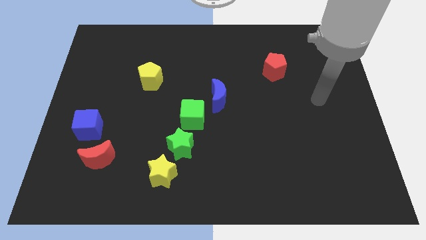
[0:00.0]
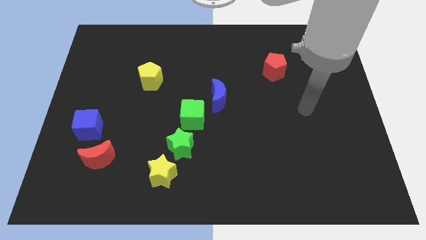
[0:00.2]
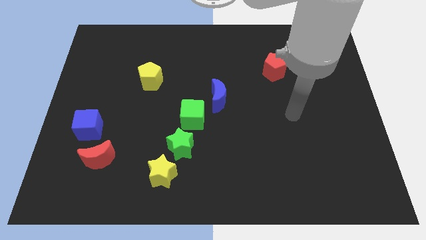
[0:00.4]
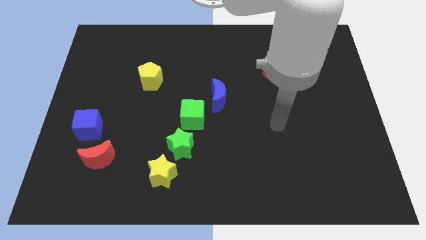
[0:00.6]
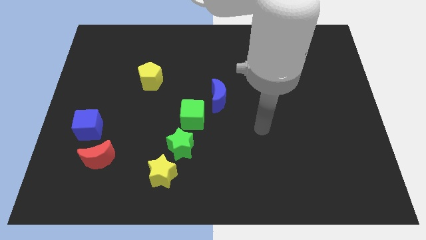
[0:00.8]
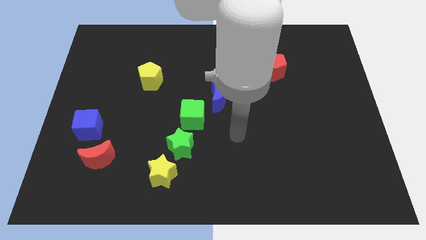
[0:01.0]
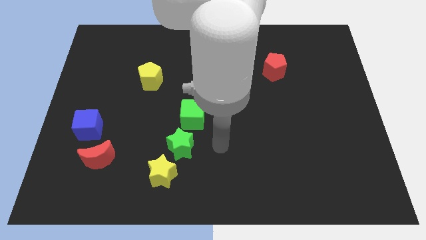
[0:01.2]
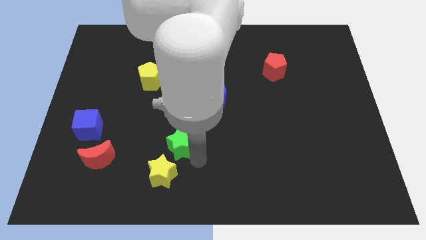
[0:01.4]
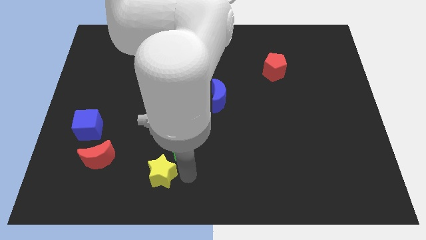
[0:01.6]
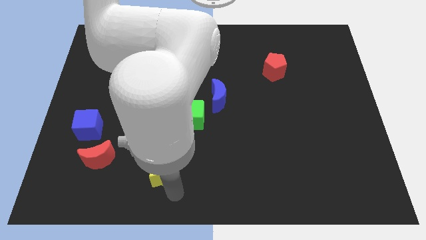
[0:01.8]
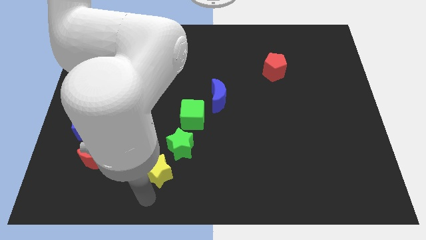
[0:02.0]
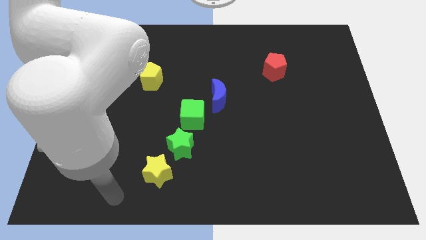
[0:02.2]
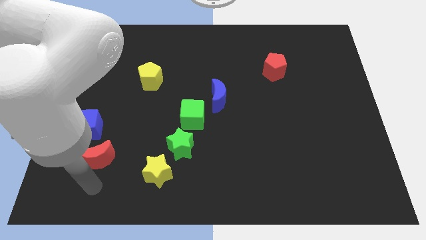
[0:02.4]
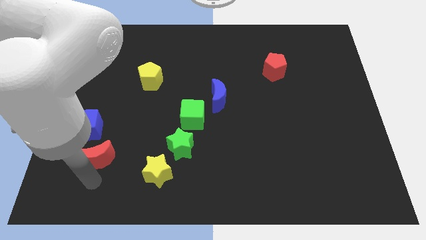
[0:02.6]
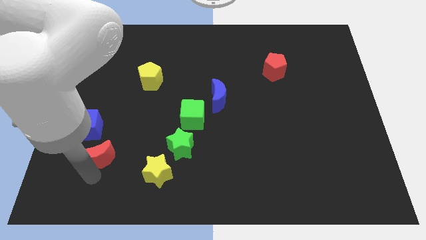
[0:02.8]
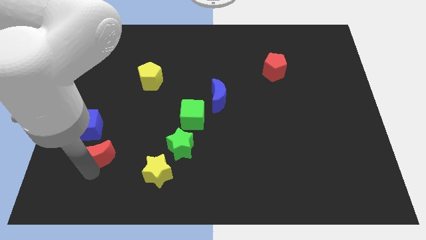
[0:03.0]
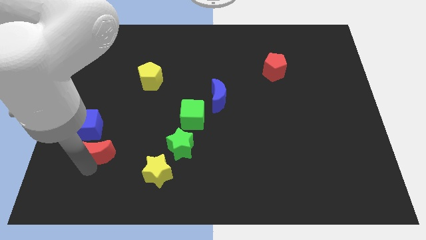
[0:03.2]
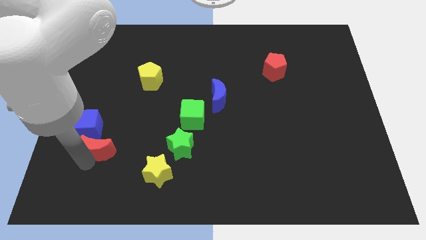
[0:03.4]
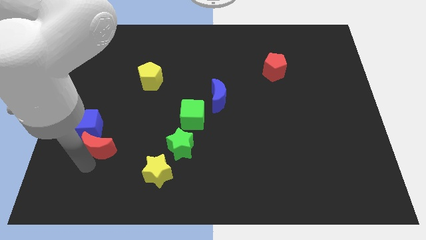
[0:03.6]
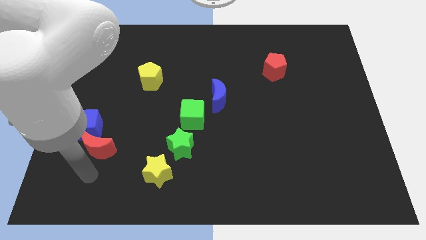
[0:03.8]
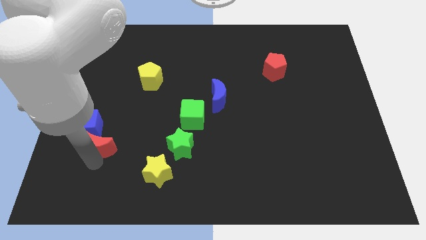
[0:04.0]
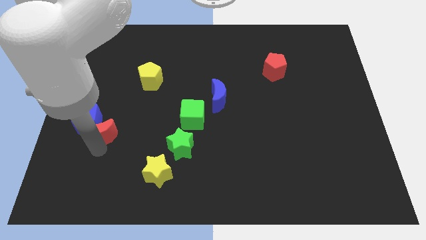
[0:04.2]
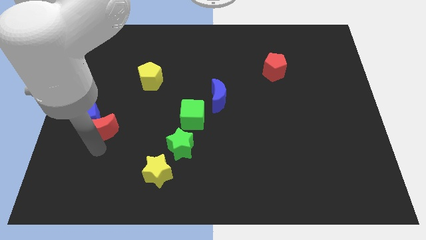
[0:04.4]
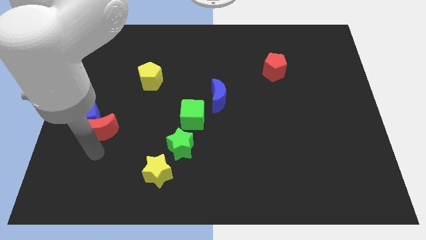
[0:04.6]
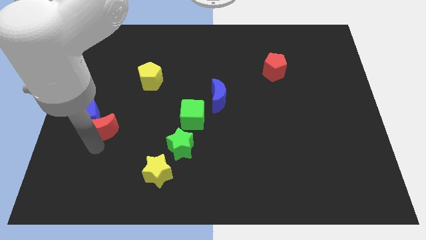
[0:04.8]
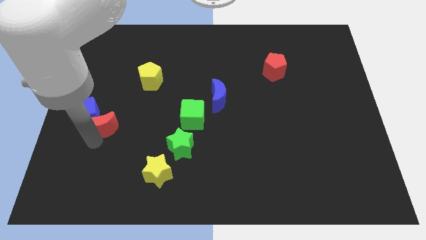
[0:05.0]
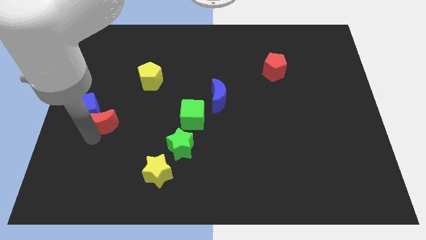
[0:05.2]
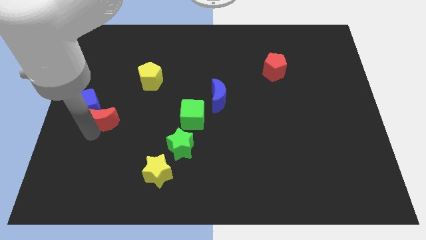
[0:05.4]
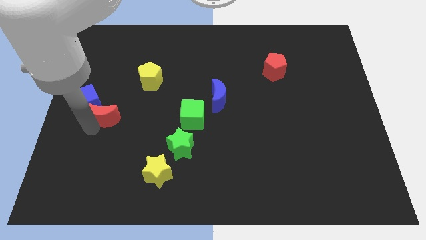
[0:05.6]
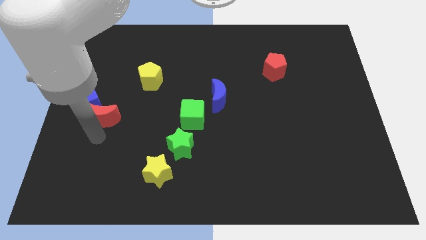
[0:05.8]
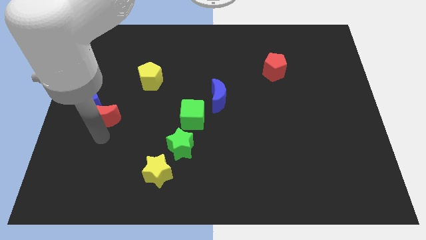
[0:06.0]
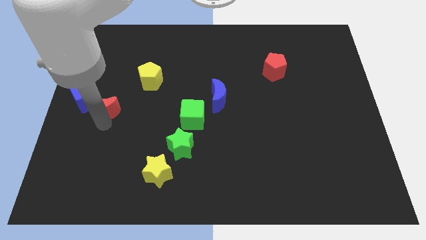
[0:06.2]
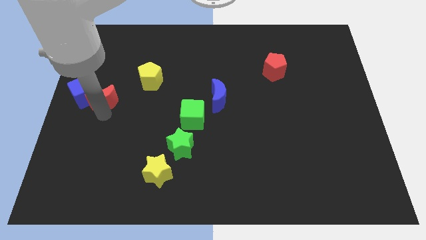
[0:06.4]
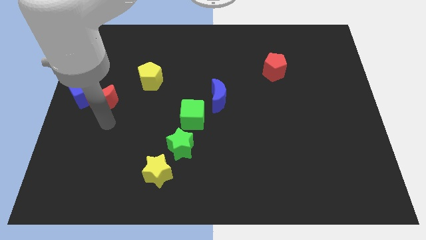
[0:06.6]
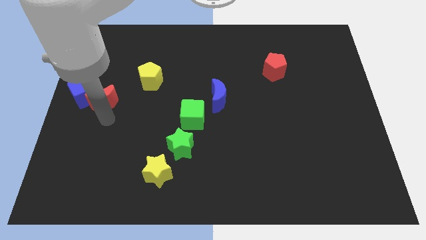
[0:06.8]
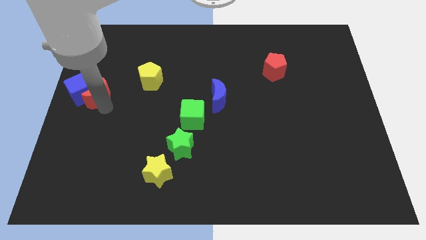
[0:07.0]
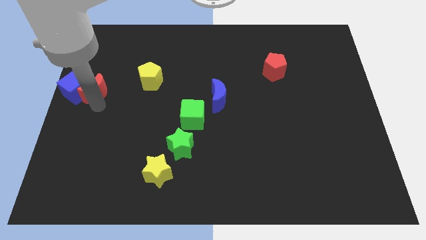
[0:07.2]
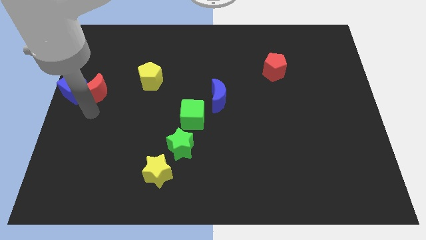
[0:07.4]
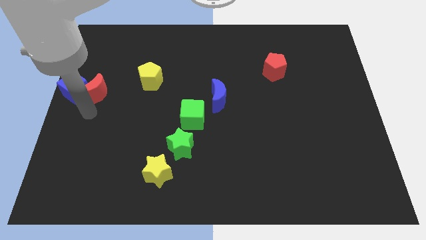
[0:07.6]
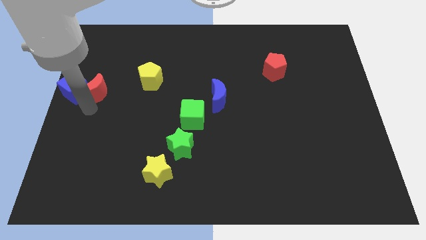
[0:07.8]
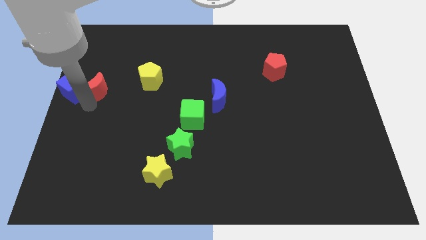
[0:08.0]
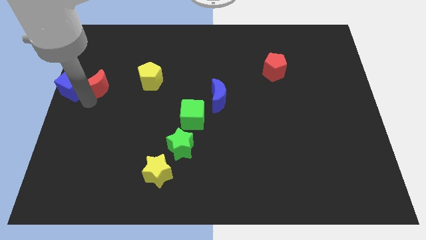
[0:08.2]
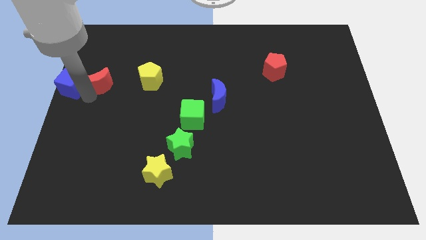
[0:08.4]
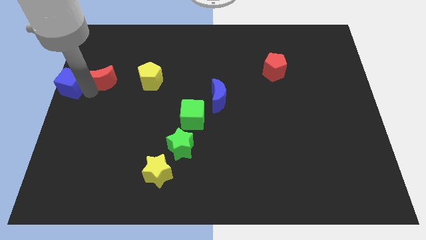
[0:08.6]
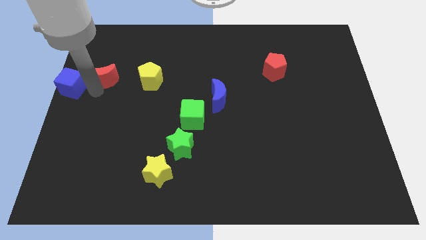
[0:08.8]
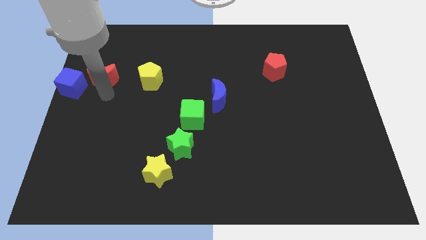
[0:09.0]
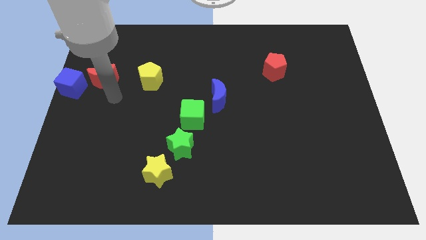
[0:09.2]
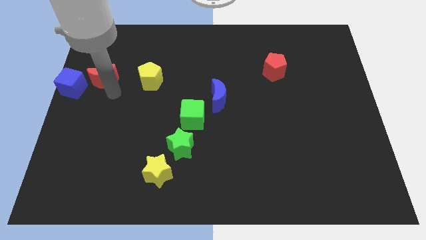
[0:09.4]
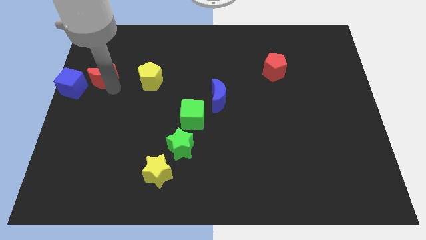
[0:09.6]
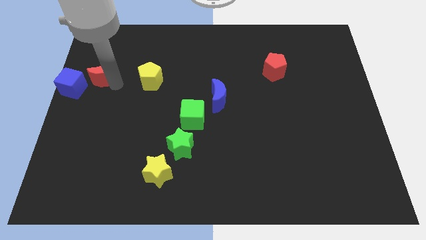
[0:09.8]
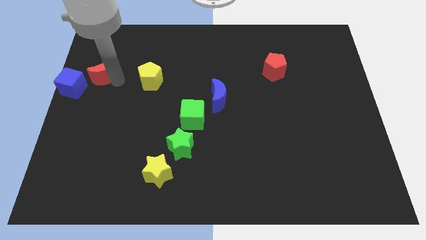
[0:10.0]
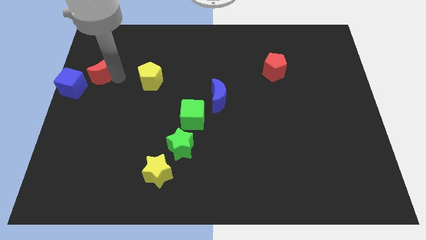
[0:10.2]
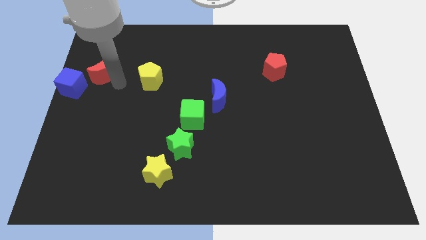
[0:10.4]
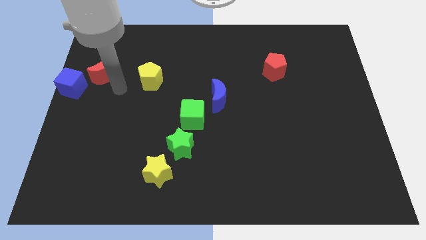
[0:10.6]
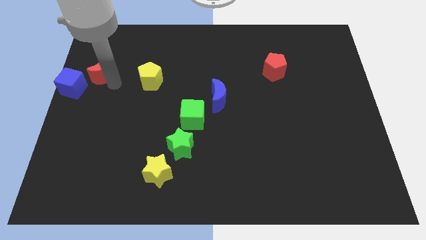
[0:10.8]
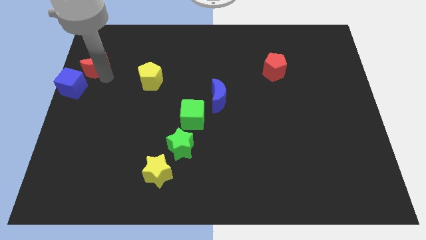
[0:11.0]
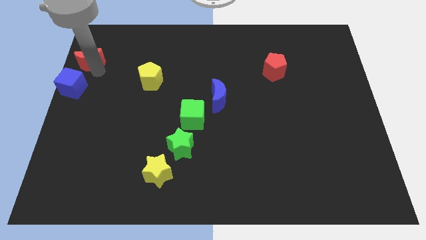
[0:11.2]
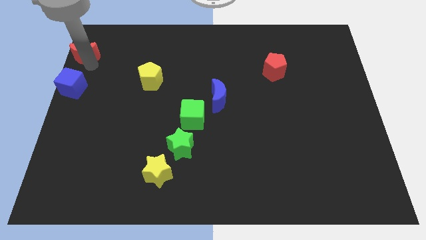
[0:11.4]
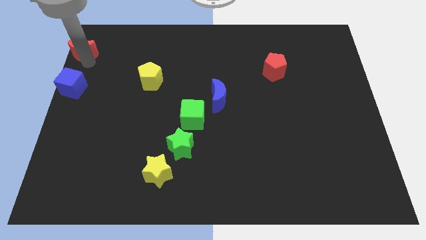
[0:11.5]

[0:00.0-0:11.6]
move the red moon to the top left of the board
